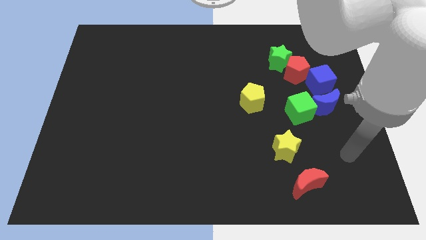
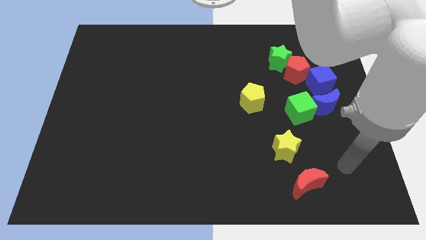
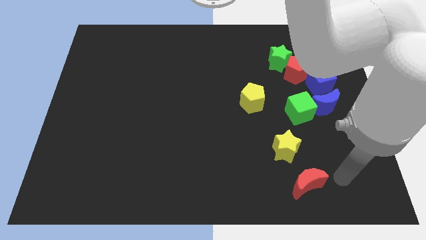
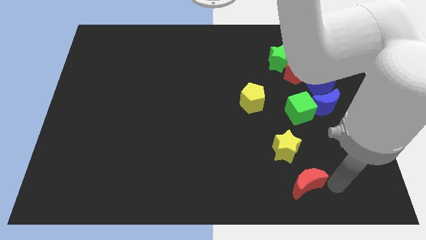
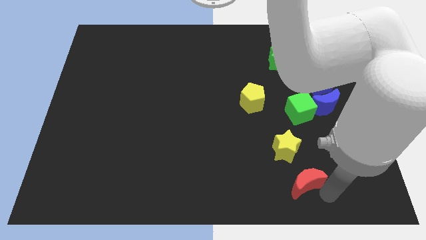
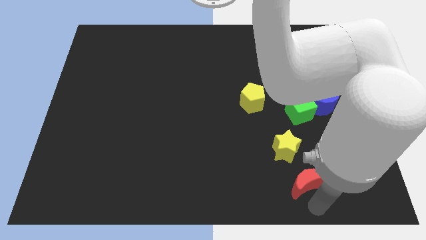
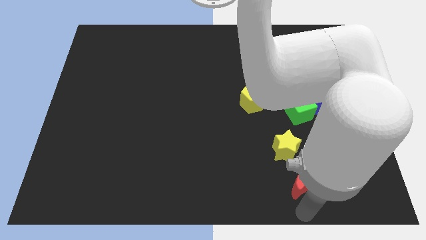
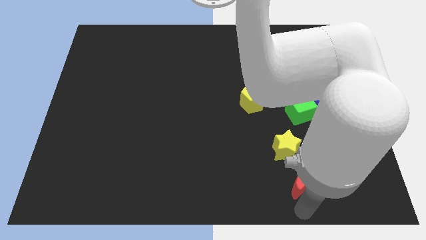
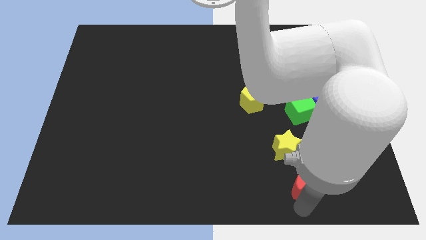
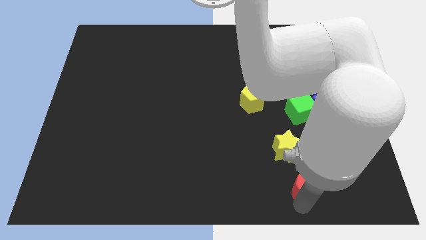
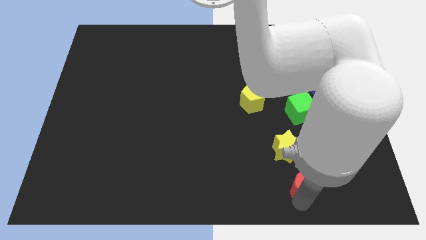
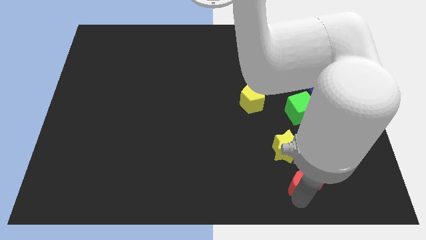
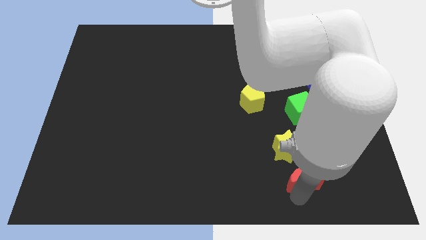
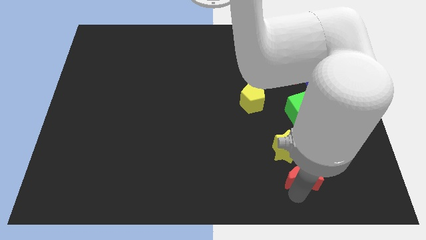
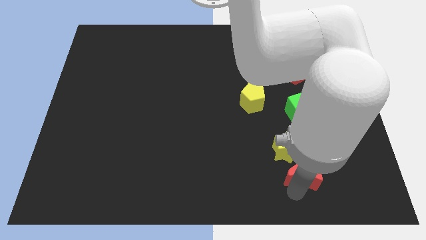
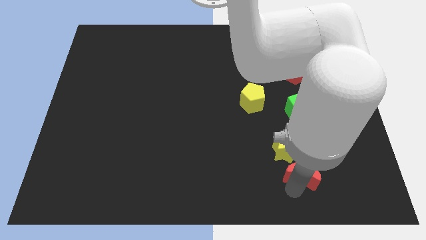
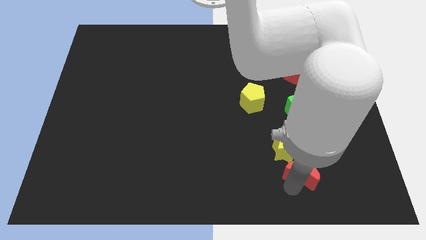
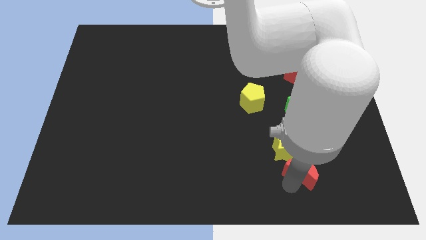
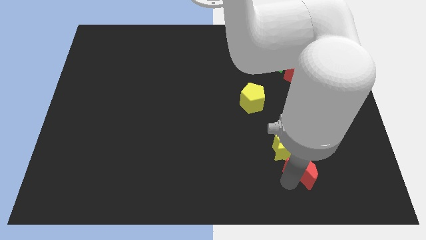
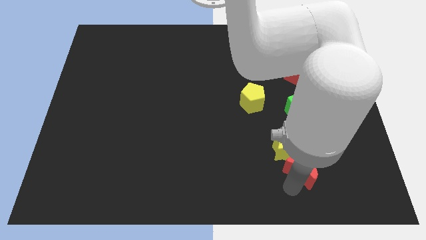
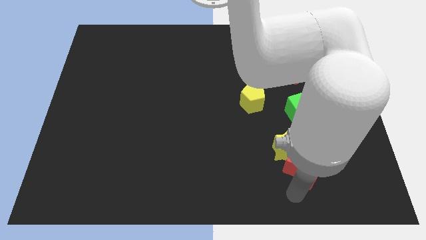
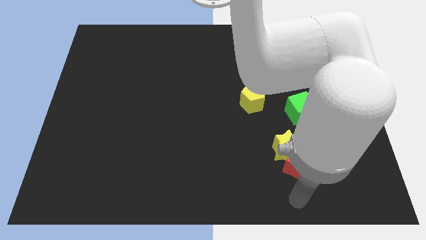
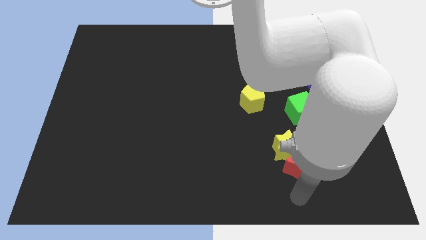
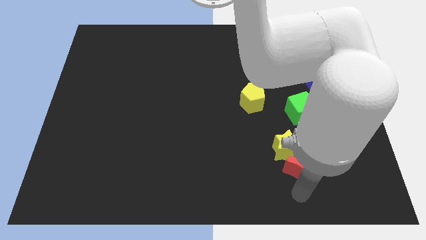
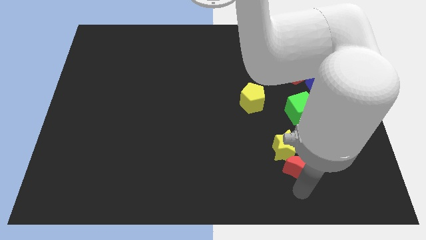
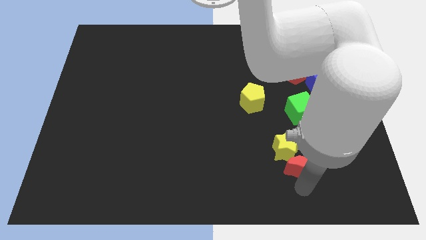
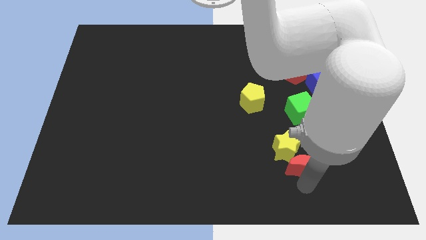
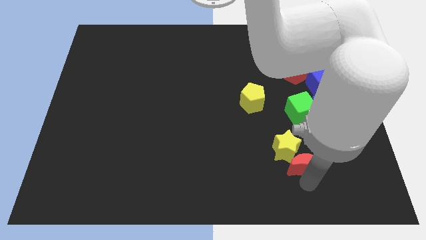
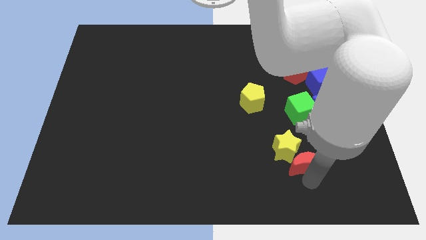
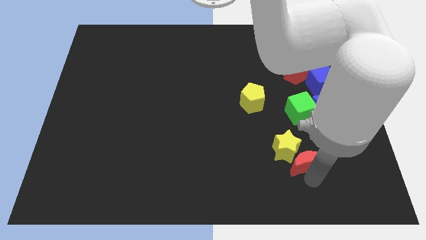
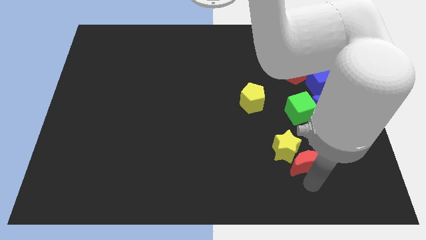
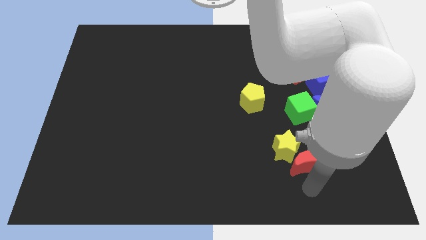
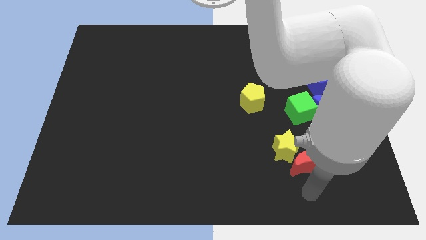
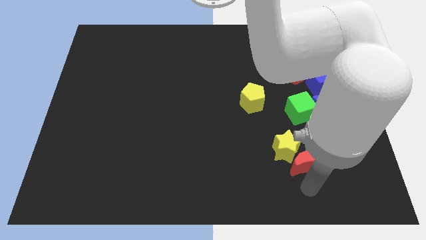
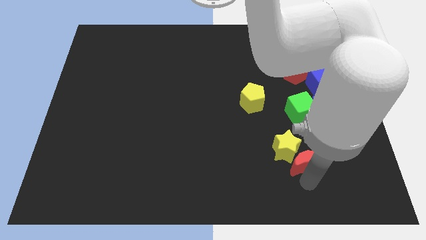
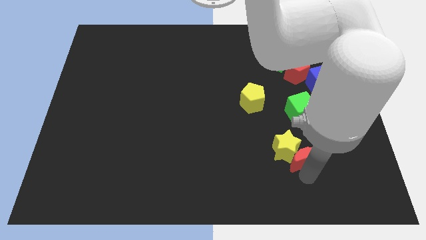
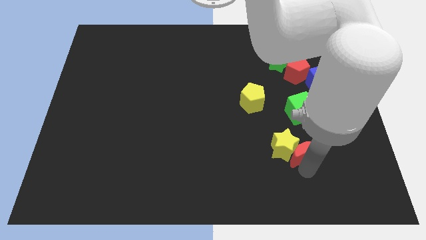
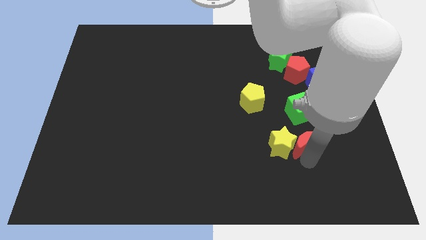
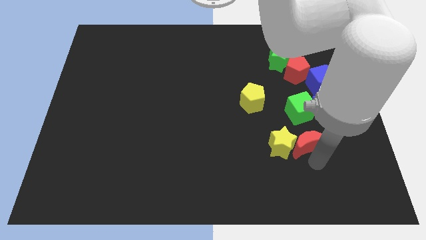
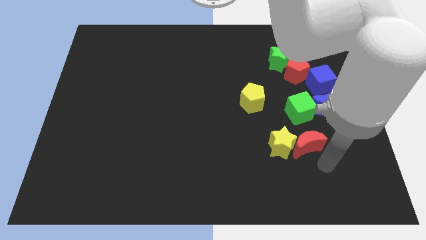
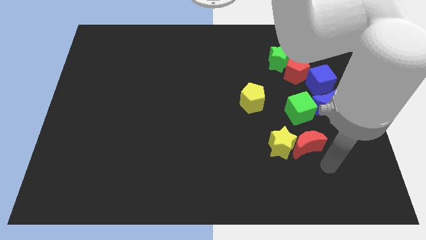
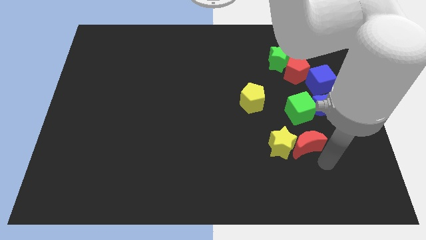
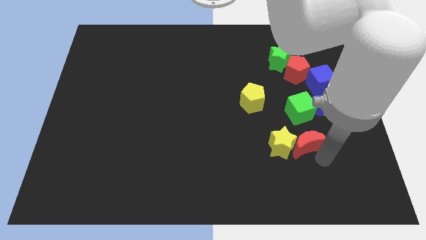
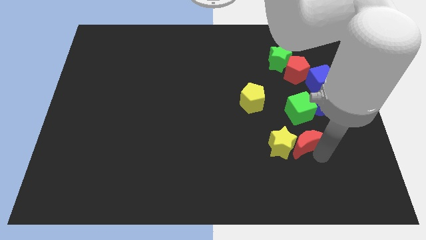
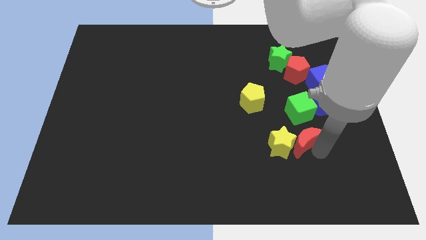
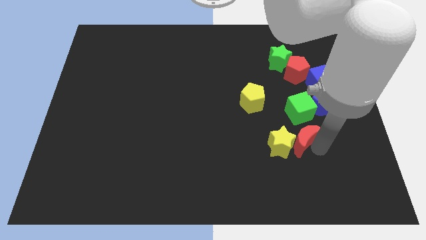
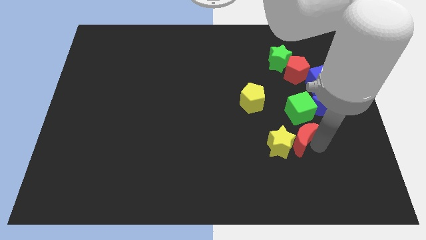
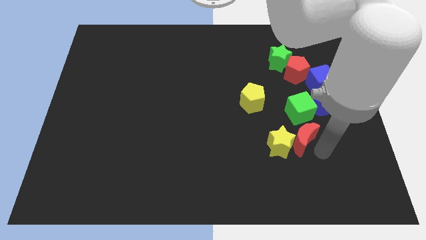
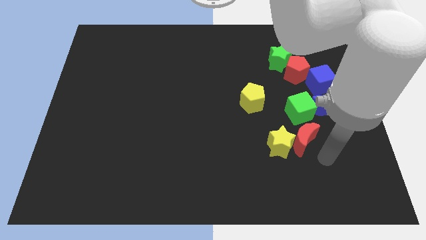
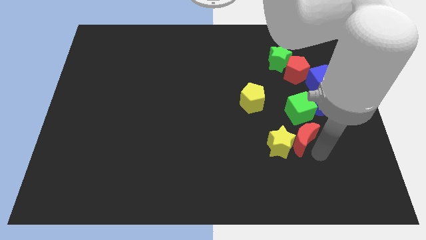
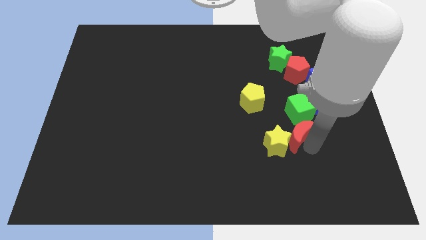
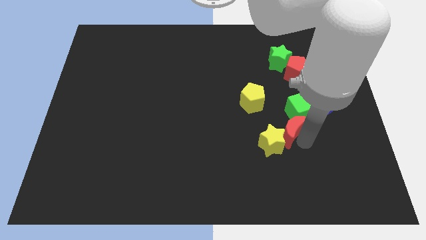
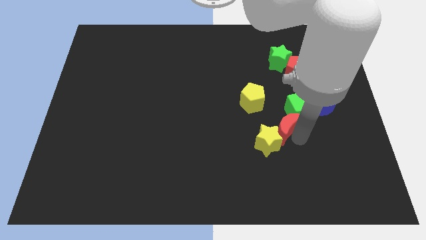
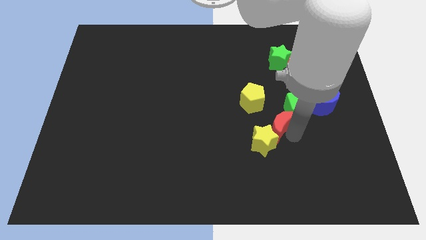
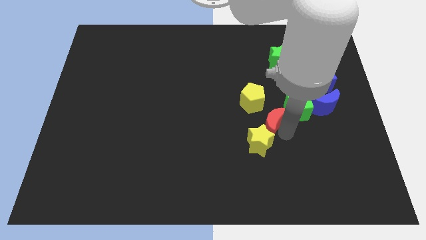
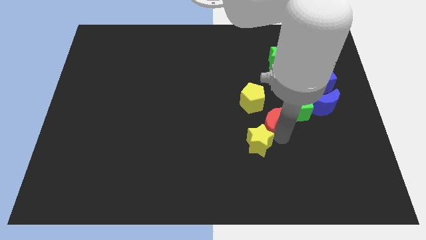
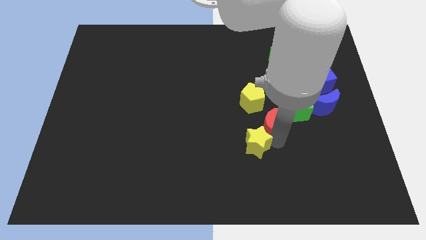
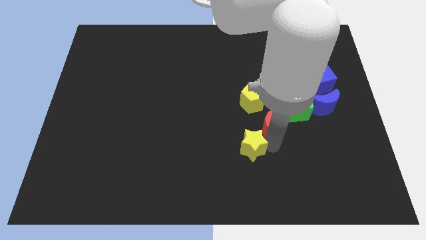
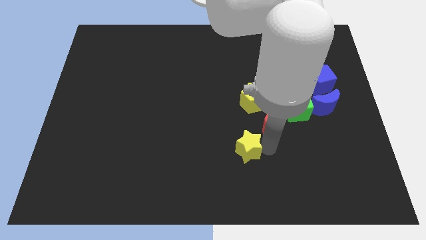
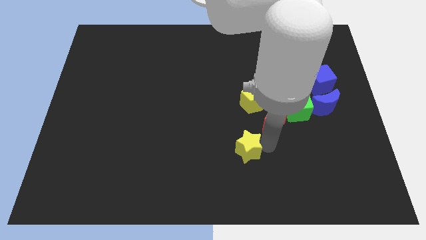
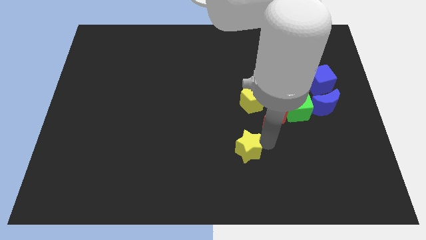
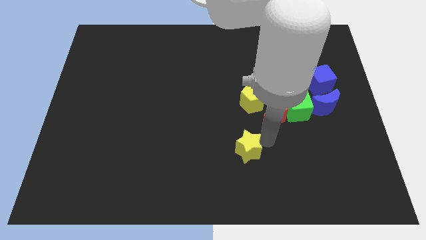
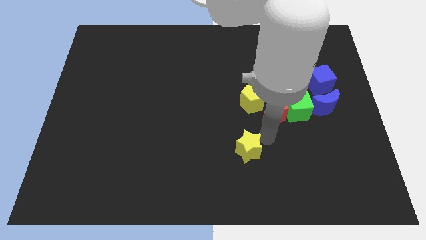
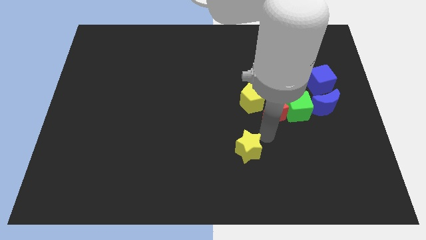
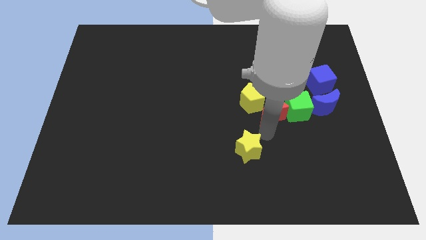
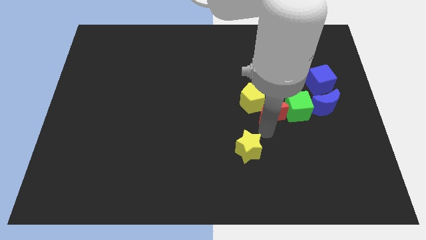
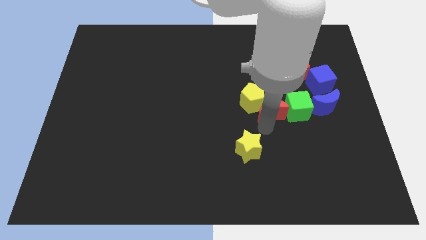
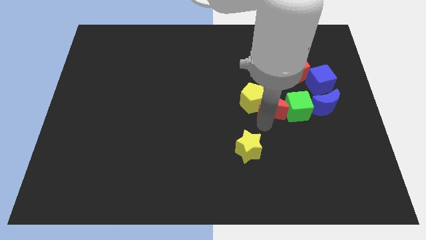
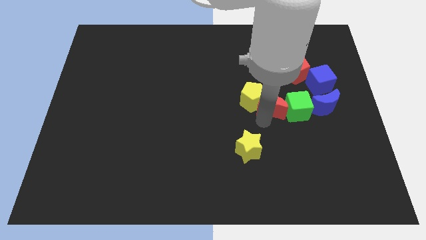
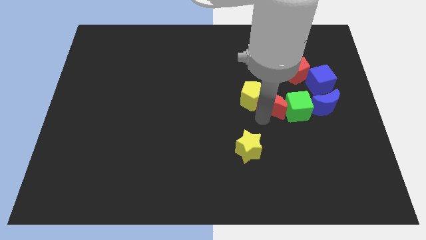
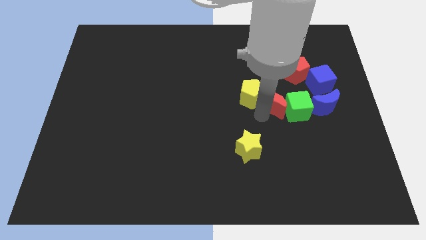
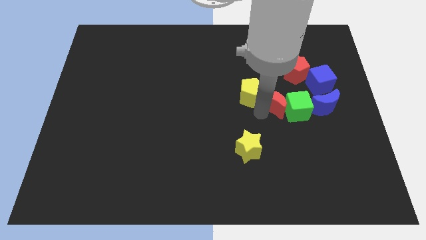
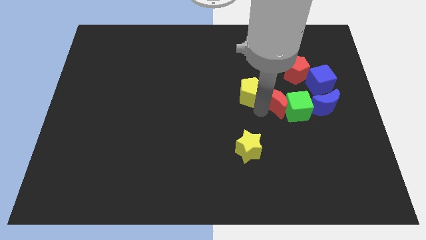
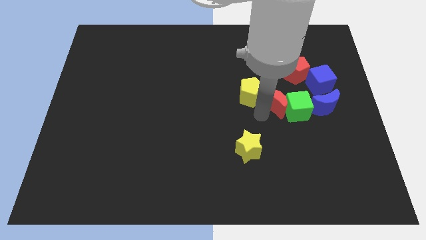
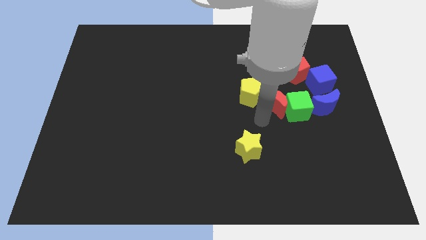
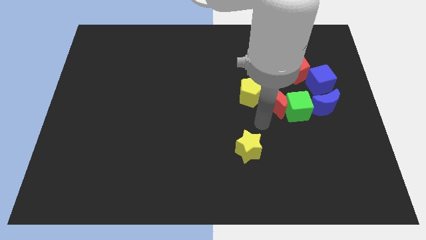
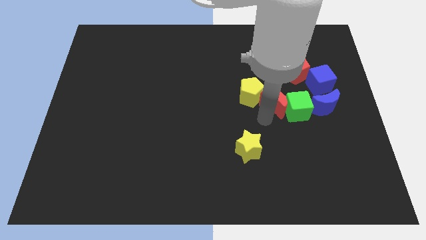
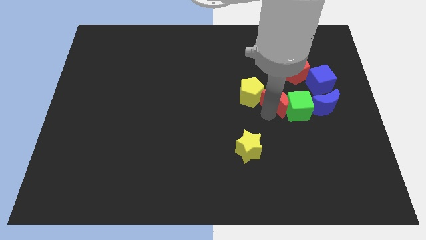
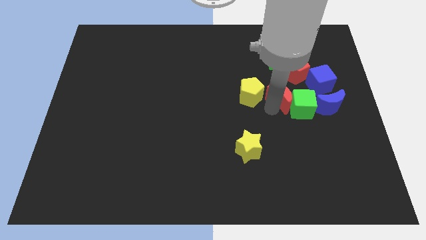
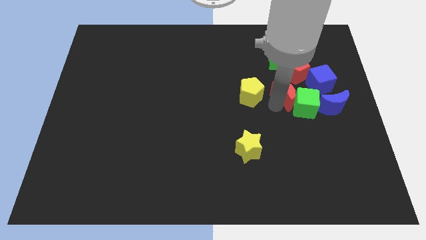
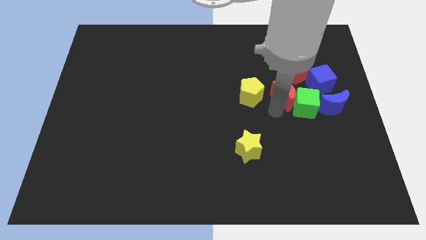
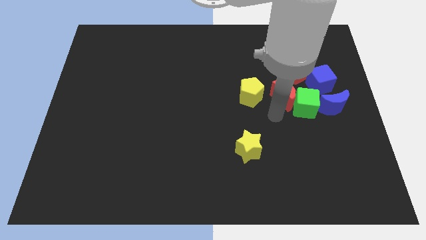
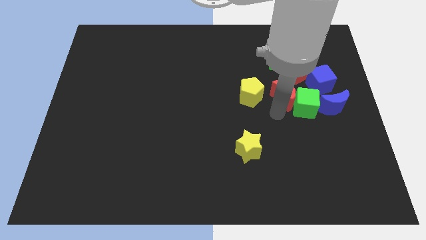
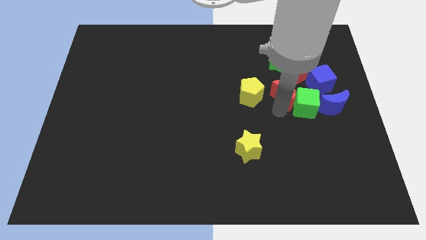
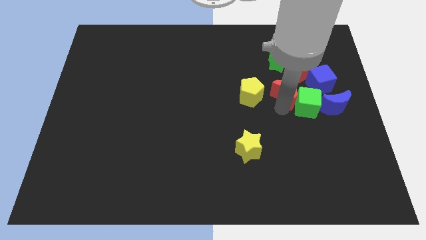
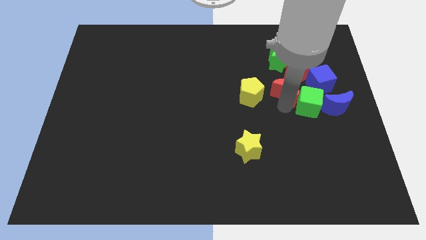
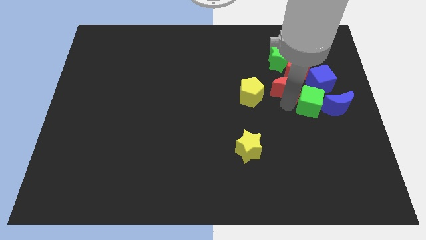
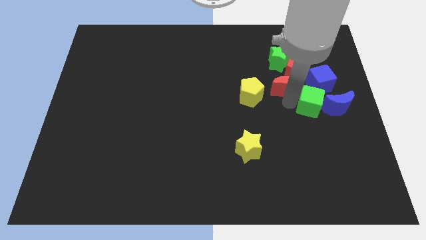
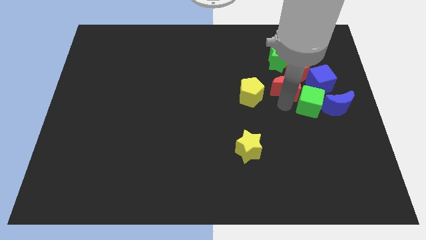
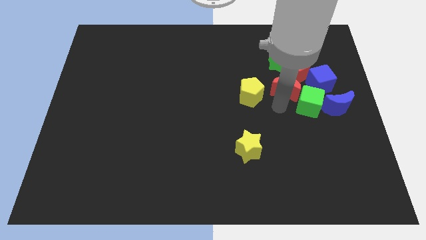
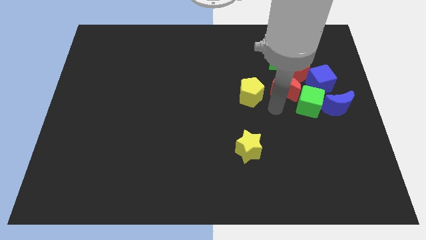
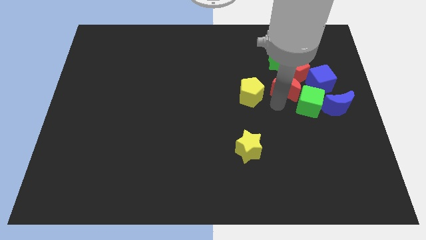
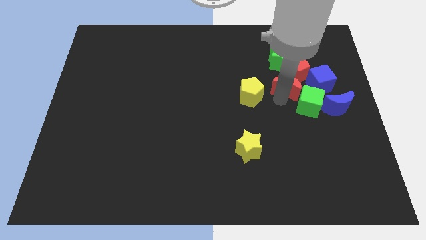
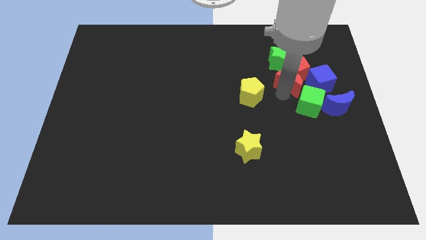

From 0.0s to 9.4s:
put the red moon towards the red pentagon
